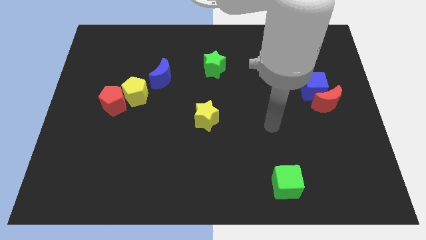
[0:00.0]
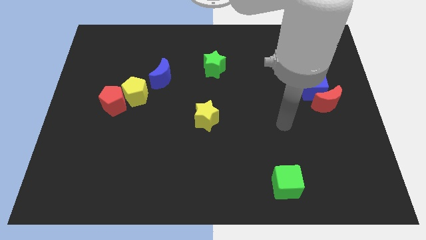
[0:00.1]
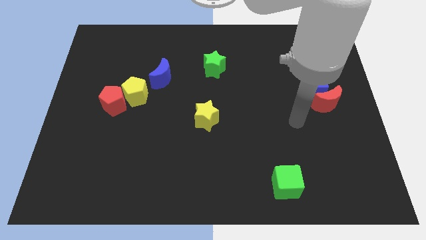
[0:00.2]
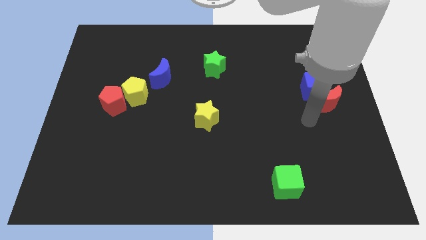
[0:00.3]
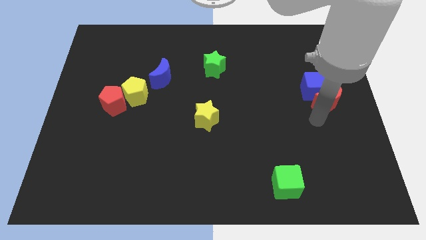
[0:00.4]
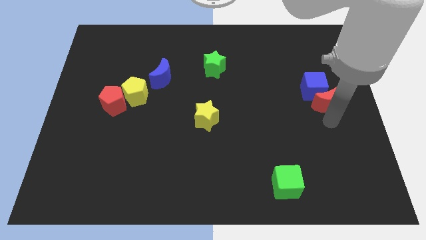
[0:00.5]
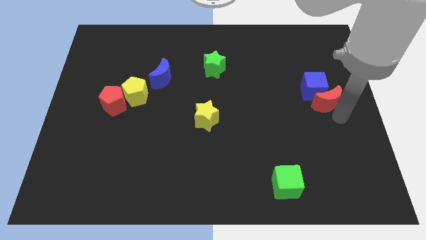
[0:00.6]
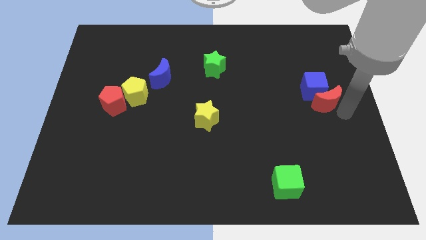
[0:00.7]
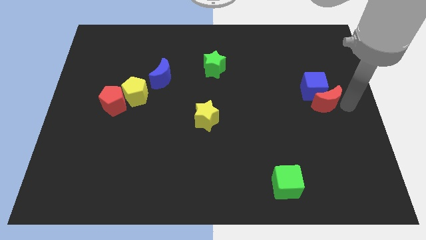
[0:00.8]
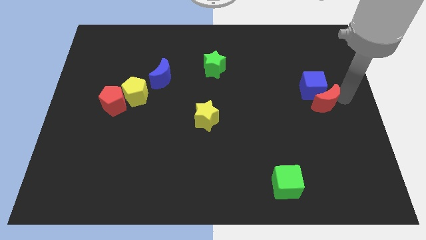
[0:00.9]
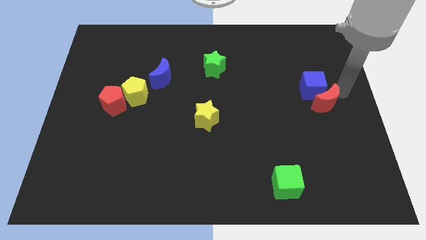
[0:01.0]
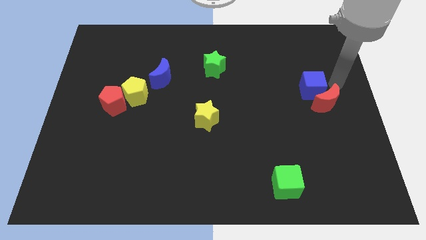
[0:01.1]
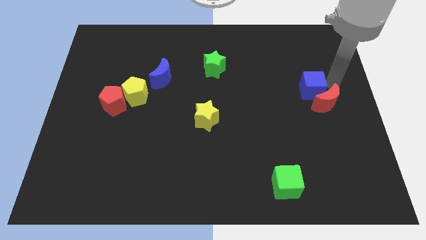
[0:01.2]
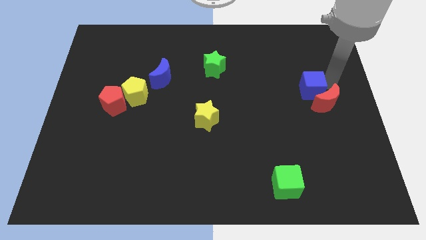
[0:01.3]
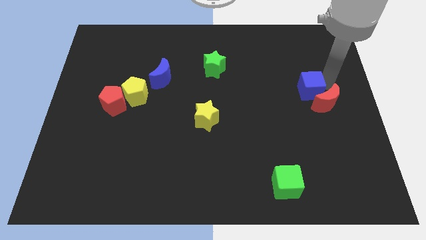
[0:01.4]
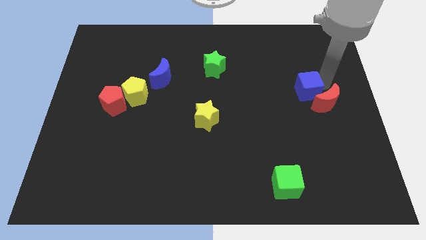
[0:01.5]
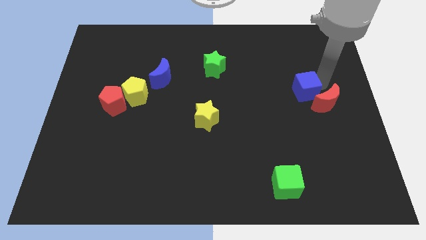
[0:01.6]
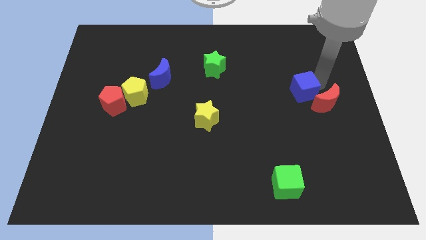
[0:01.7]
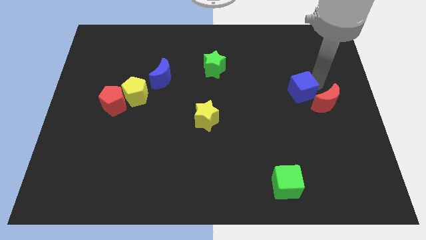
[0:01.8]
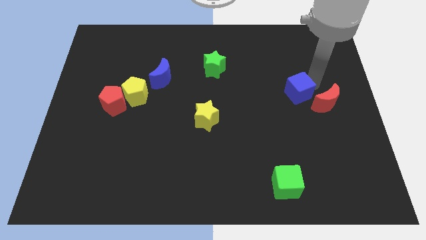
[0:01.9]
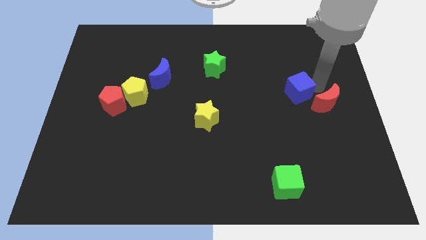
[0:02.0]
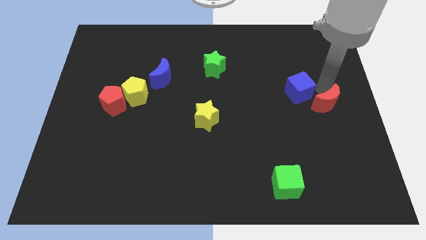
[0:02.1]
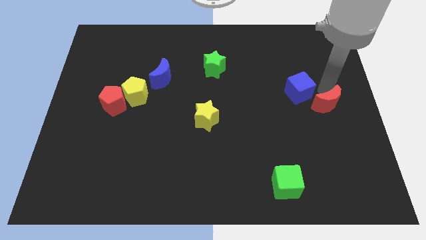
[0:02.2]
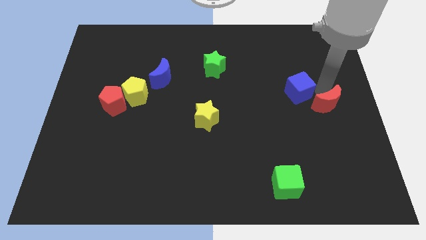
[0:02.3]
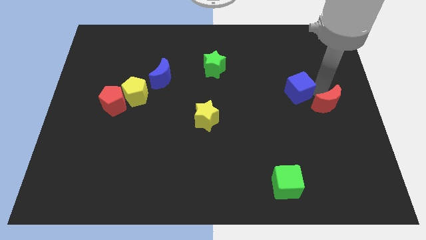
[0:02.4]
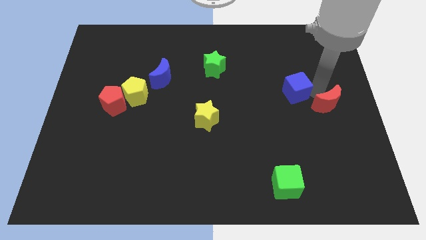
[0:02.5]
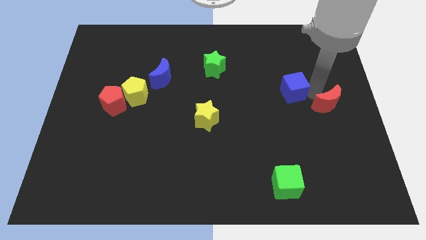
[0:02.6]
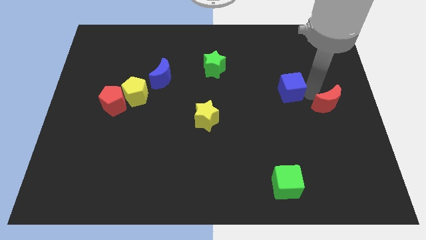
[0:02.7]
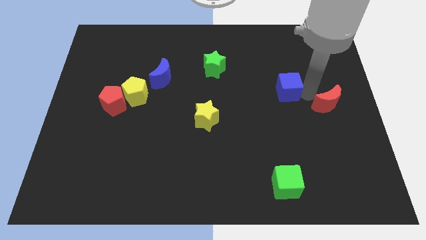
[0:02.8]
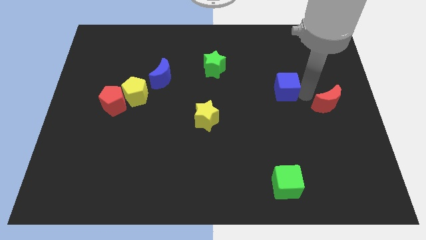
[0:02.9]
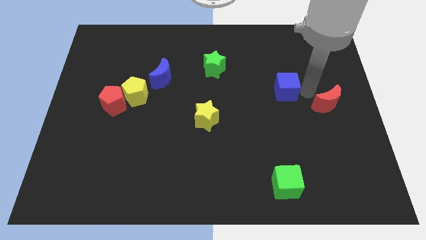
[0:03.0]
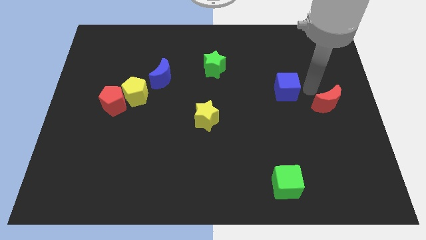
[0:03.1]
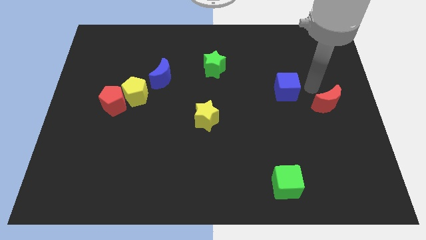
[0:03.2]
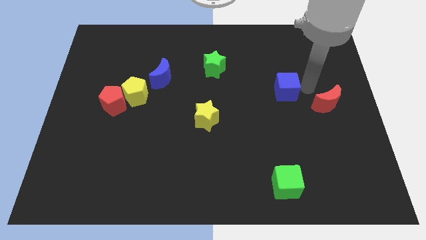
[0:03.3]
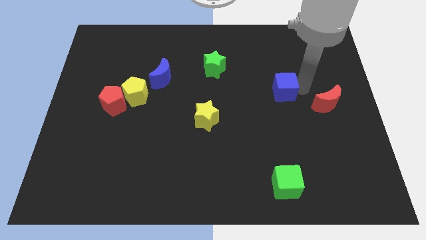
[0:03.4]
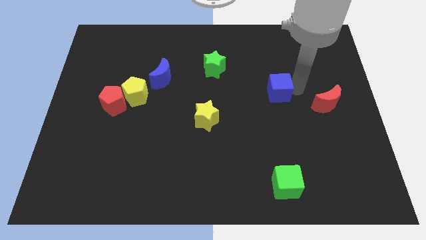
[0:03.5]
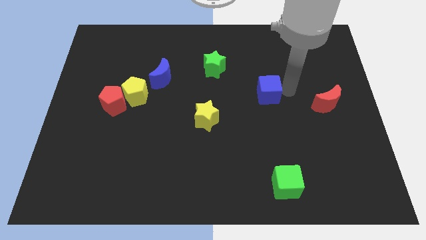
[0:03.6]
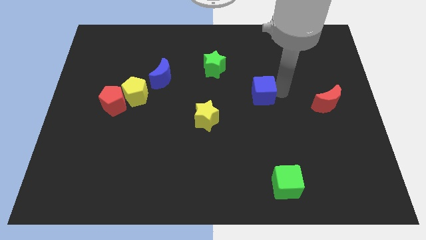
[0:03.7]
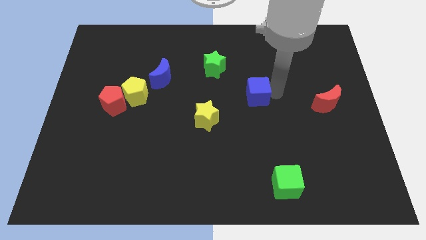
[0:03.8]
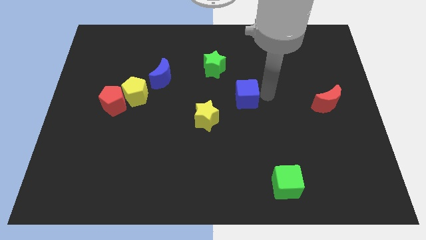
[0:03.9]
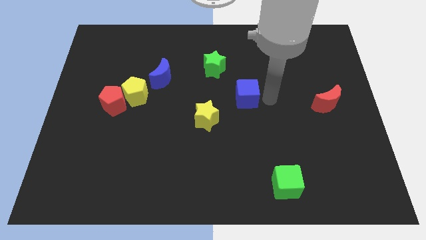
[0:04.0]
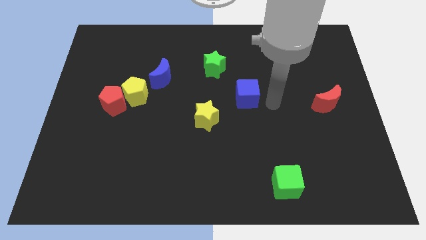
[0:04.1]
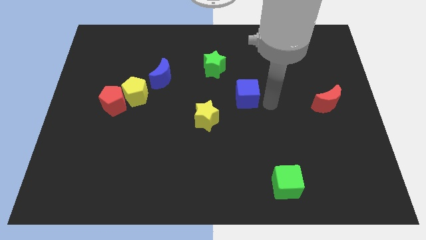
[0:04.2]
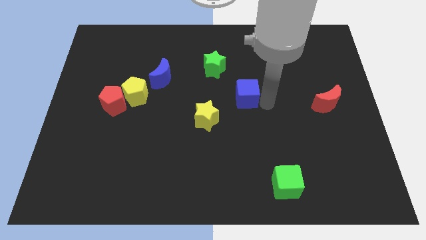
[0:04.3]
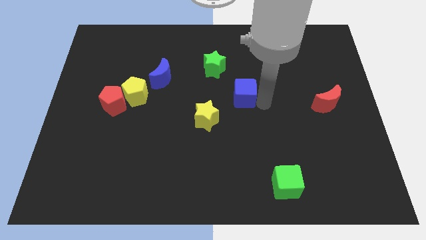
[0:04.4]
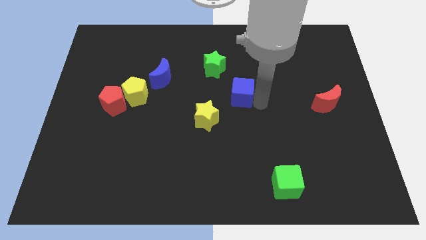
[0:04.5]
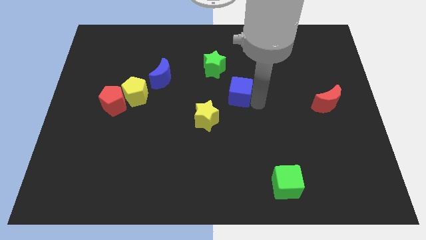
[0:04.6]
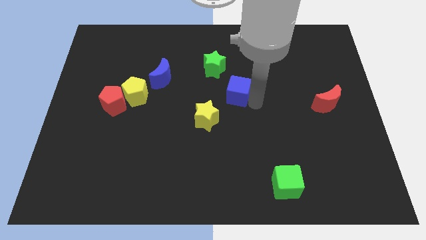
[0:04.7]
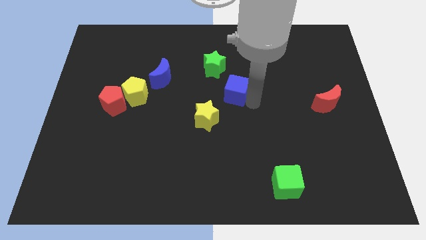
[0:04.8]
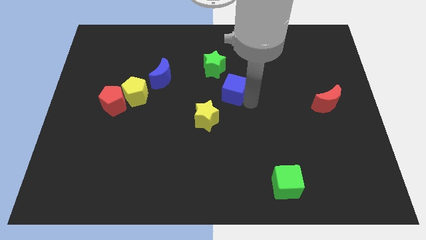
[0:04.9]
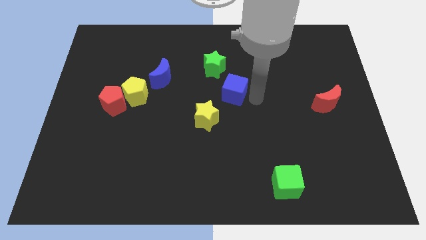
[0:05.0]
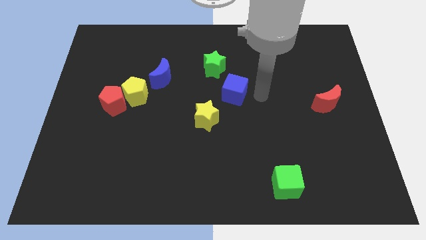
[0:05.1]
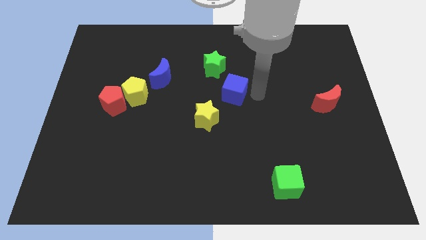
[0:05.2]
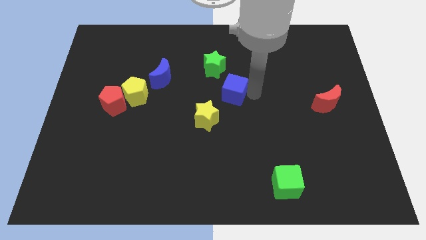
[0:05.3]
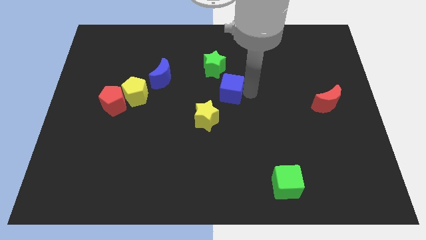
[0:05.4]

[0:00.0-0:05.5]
move the blue cube left

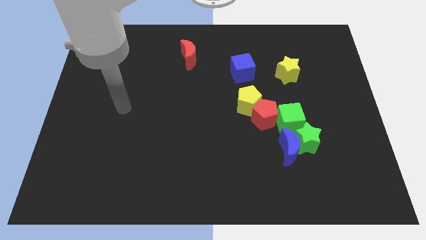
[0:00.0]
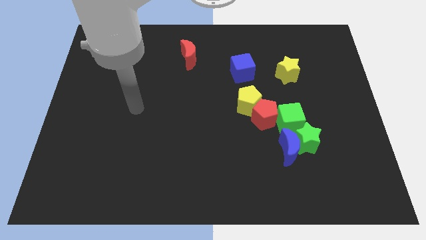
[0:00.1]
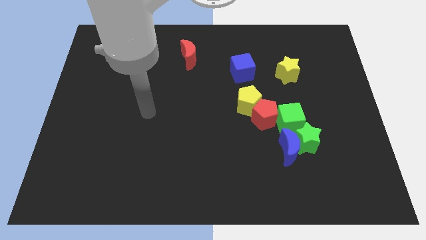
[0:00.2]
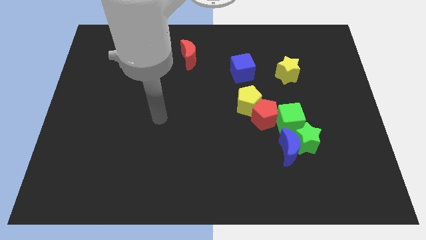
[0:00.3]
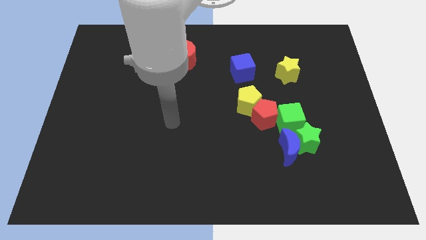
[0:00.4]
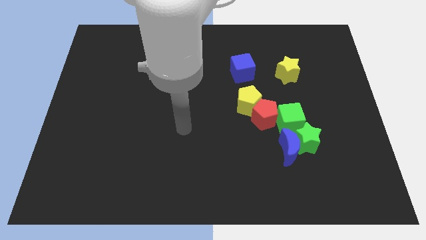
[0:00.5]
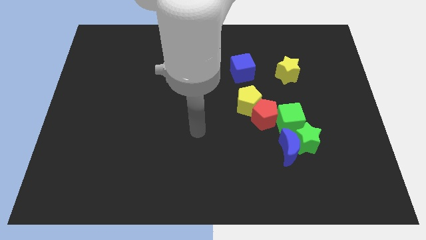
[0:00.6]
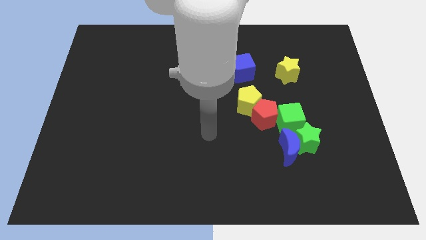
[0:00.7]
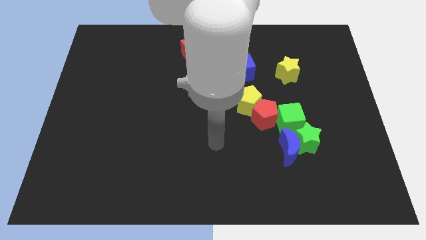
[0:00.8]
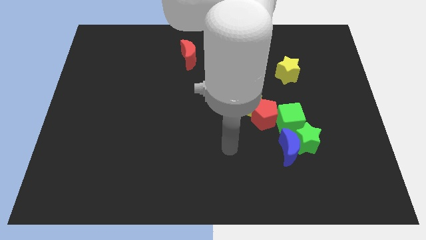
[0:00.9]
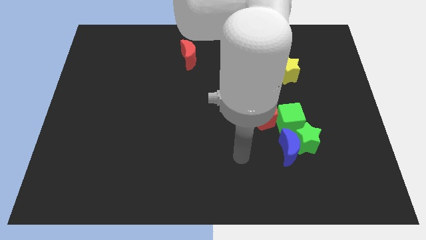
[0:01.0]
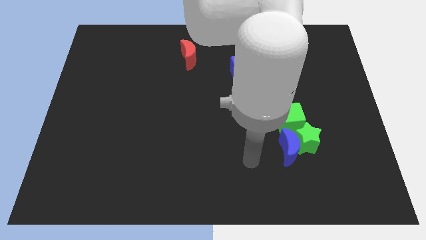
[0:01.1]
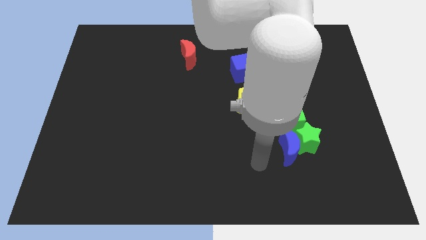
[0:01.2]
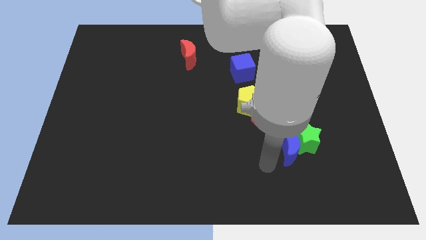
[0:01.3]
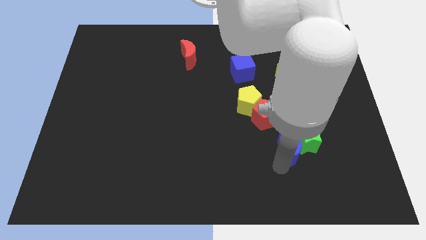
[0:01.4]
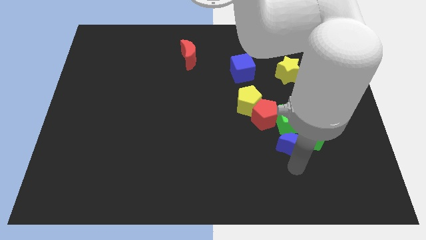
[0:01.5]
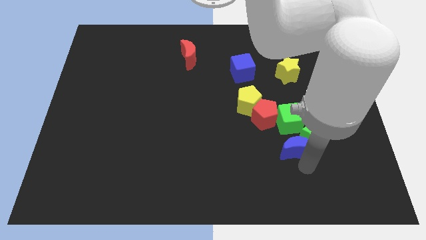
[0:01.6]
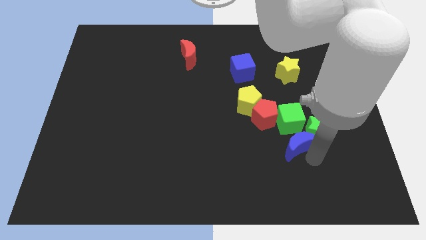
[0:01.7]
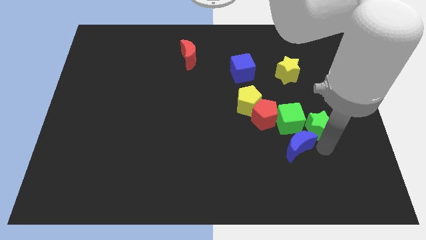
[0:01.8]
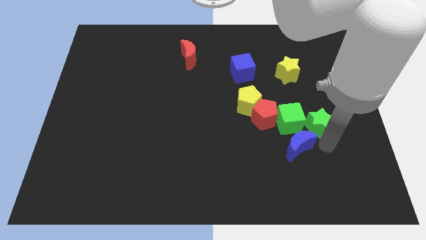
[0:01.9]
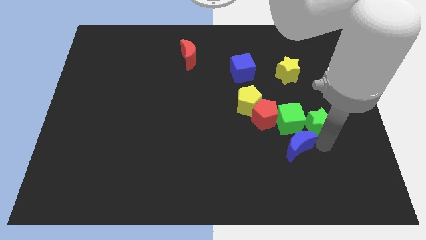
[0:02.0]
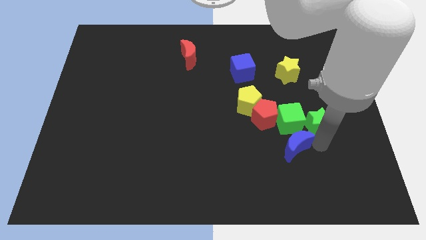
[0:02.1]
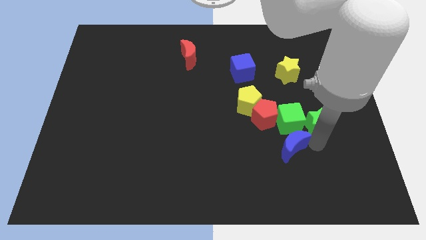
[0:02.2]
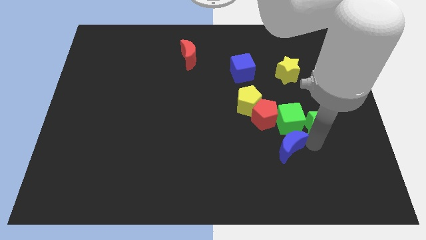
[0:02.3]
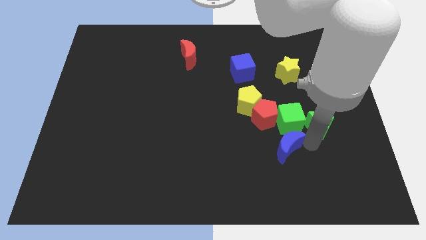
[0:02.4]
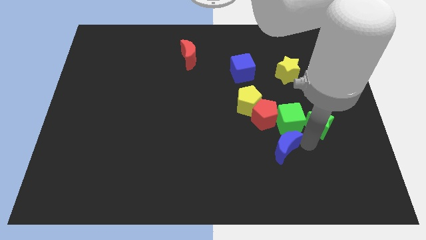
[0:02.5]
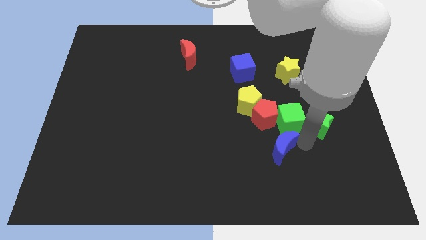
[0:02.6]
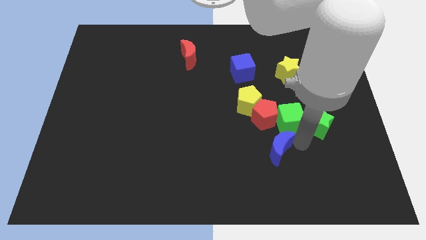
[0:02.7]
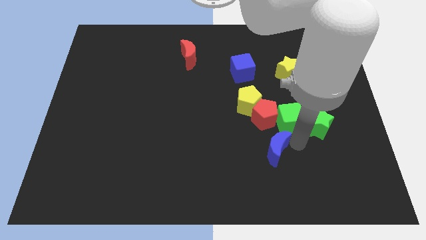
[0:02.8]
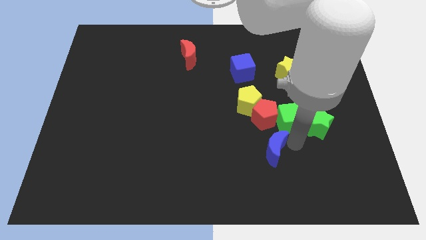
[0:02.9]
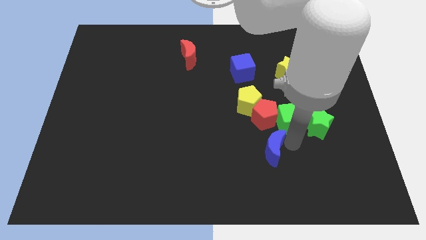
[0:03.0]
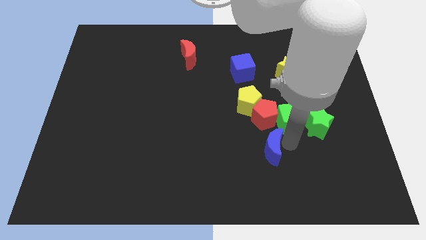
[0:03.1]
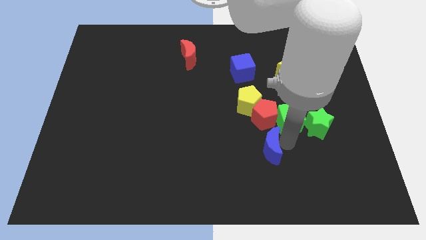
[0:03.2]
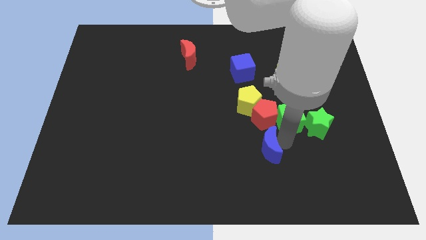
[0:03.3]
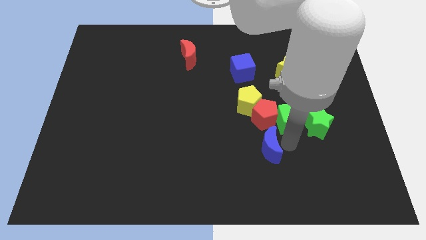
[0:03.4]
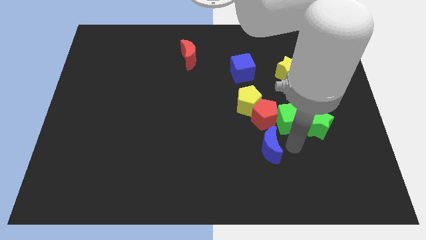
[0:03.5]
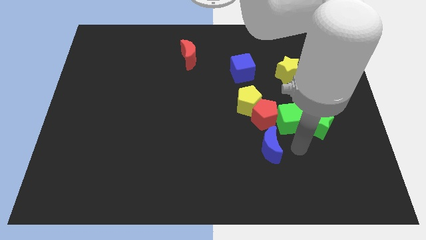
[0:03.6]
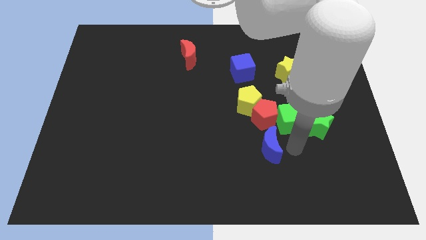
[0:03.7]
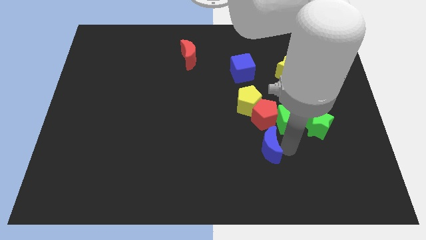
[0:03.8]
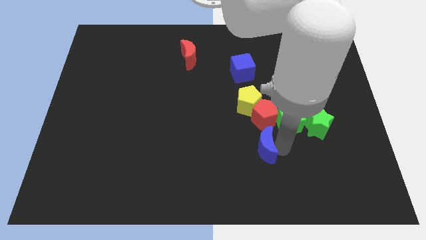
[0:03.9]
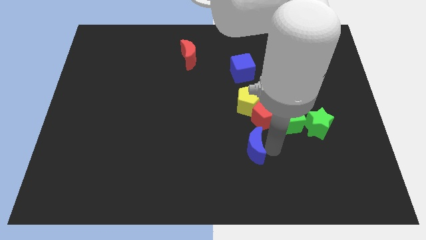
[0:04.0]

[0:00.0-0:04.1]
slide the blue moon a little left
